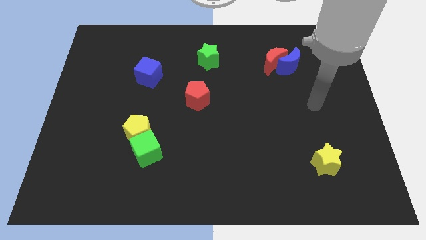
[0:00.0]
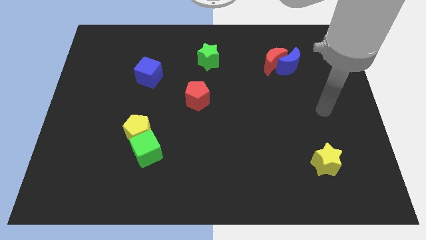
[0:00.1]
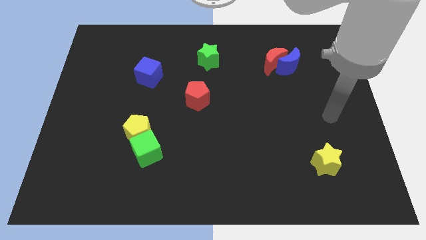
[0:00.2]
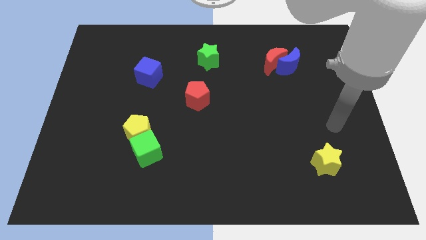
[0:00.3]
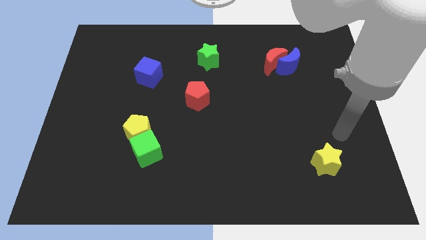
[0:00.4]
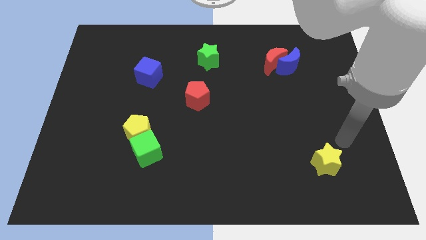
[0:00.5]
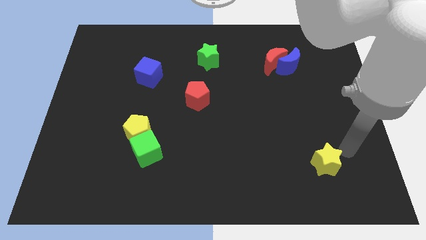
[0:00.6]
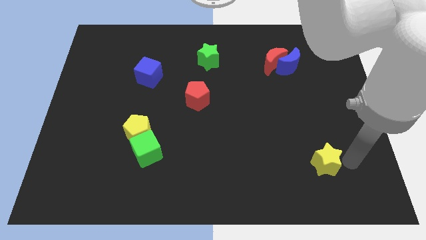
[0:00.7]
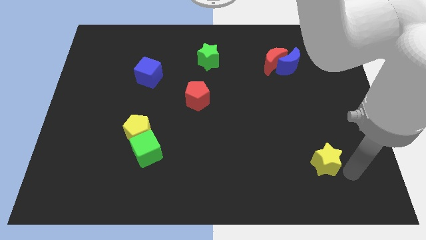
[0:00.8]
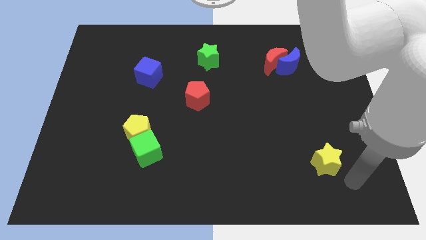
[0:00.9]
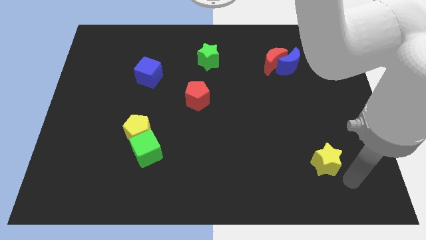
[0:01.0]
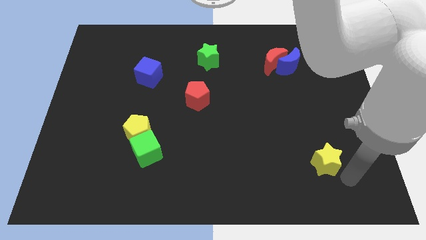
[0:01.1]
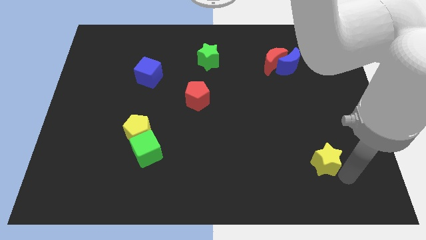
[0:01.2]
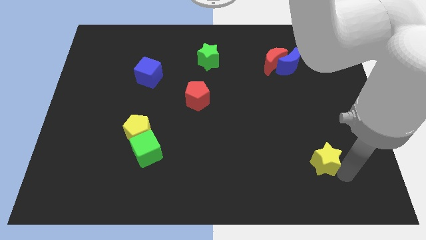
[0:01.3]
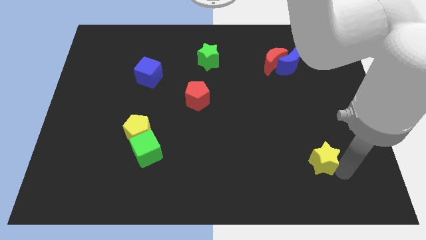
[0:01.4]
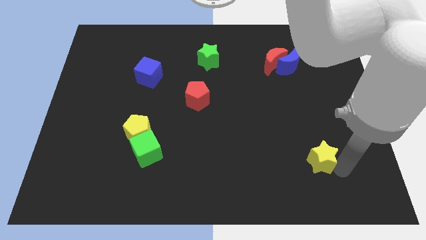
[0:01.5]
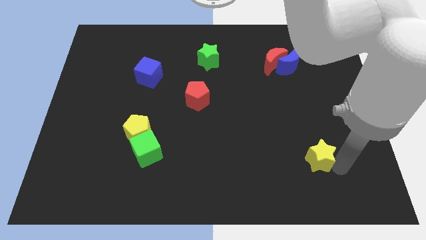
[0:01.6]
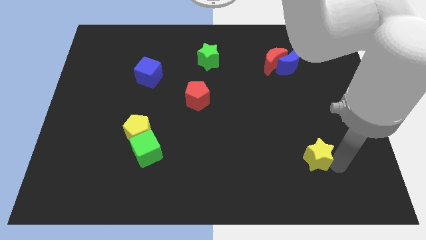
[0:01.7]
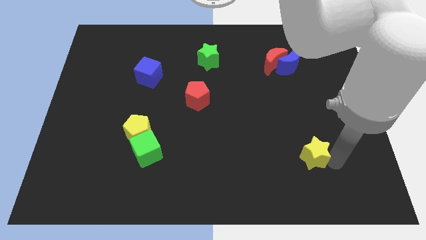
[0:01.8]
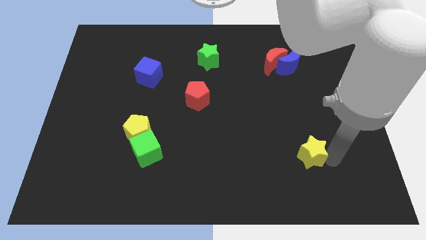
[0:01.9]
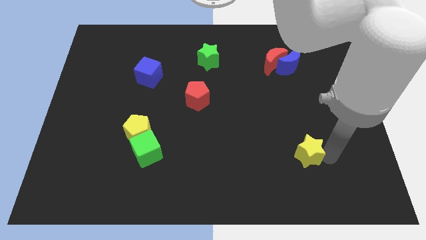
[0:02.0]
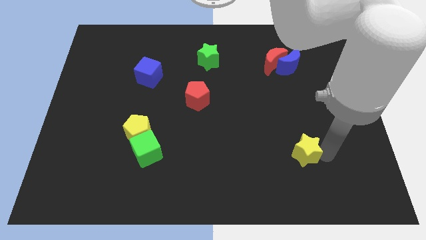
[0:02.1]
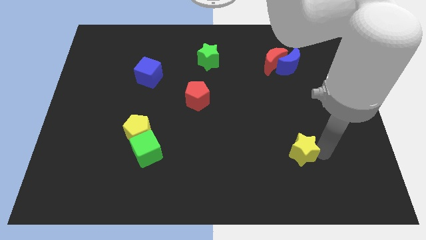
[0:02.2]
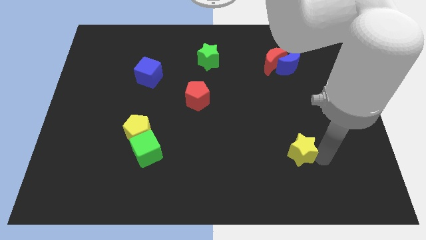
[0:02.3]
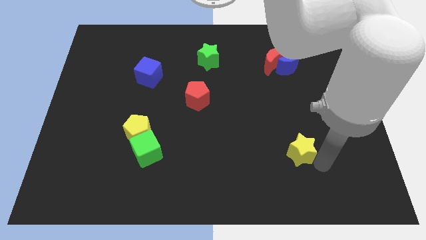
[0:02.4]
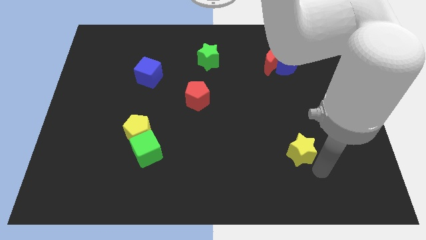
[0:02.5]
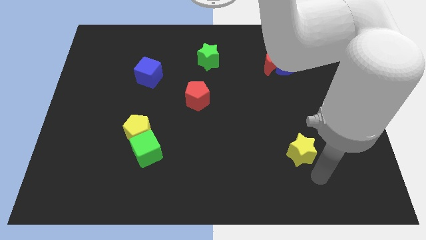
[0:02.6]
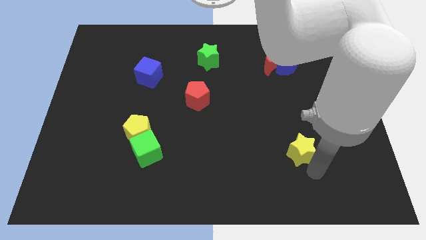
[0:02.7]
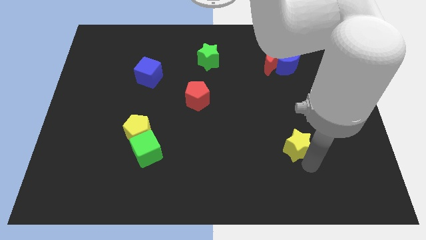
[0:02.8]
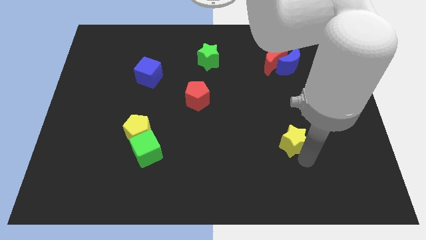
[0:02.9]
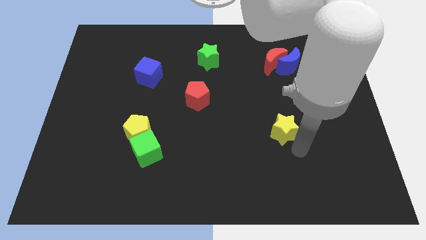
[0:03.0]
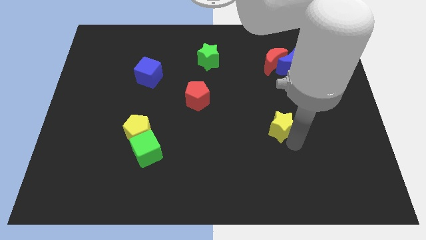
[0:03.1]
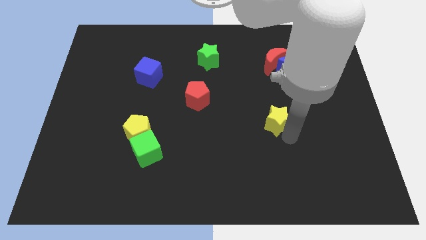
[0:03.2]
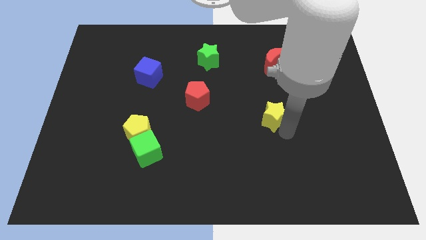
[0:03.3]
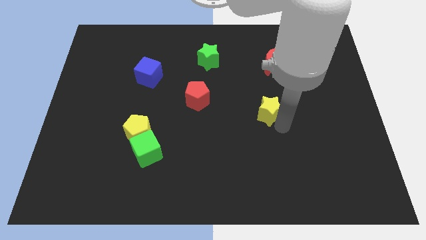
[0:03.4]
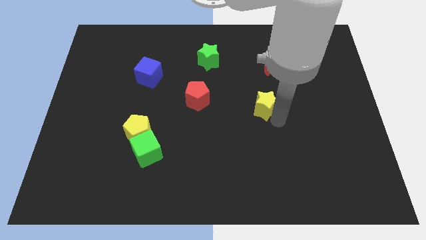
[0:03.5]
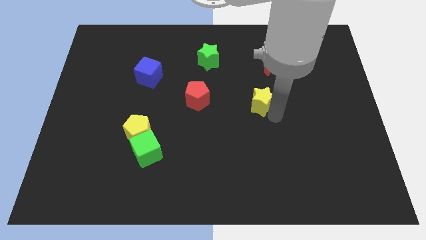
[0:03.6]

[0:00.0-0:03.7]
push the yellow star upwards and left

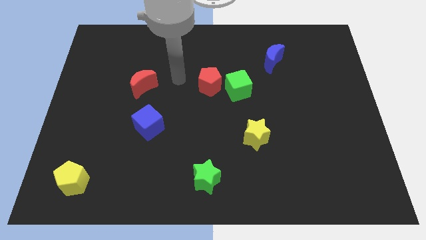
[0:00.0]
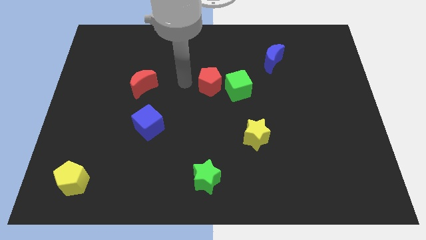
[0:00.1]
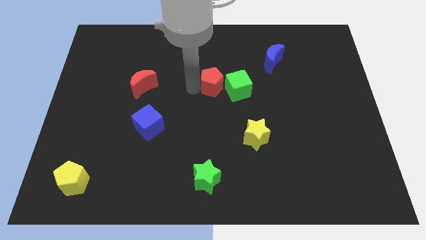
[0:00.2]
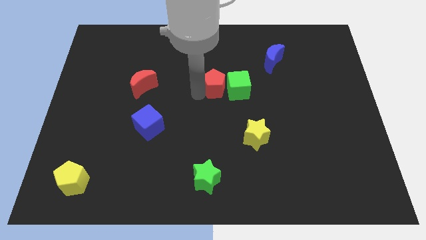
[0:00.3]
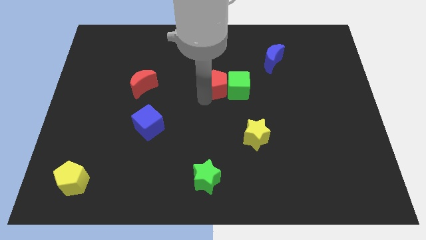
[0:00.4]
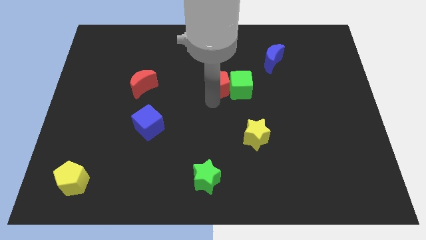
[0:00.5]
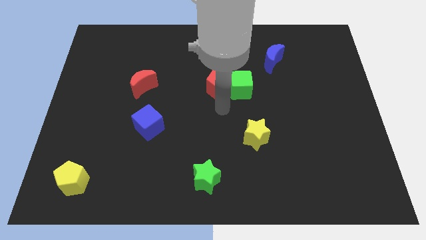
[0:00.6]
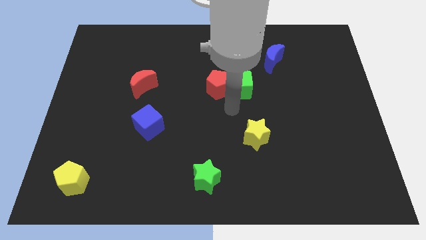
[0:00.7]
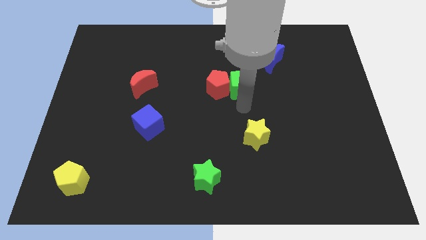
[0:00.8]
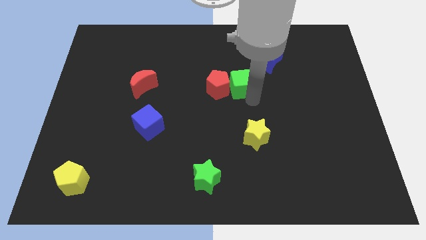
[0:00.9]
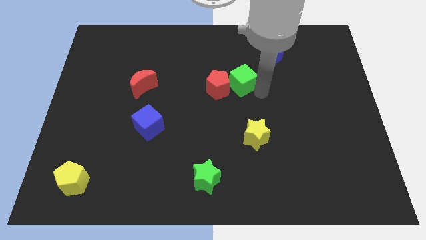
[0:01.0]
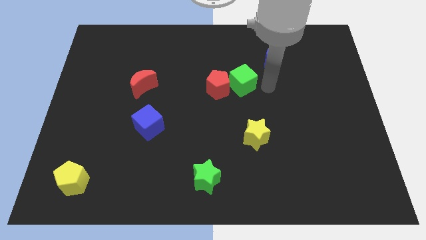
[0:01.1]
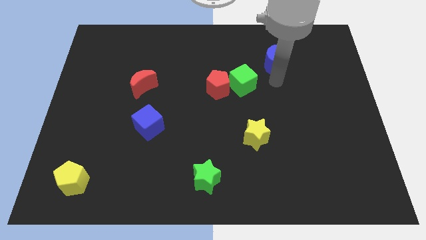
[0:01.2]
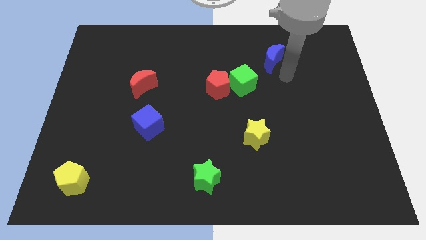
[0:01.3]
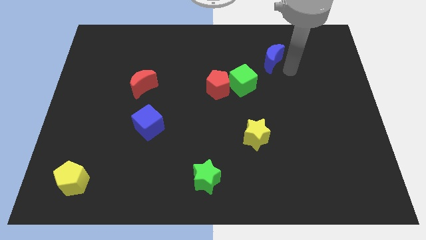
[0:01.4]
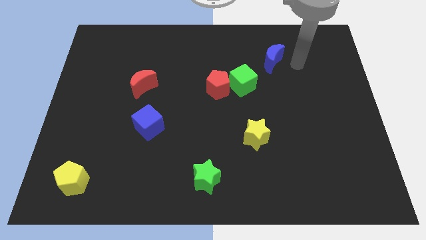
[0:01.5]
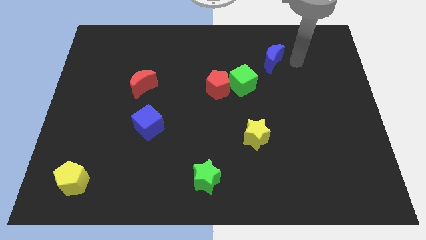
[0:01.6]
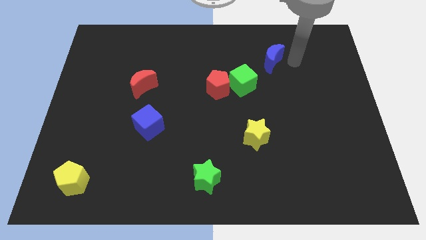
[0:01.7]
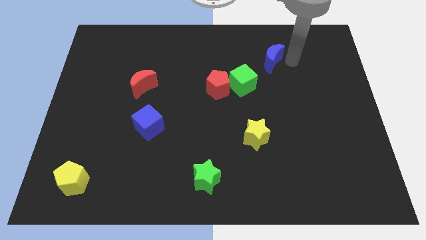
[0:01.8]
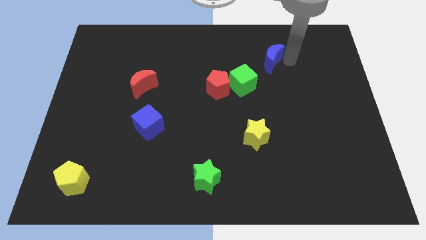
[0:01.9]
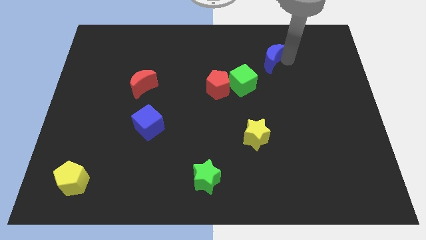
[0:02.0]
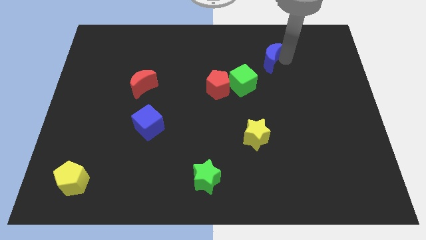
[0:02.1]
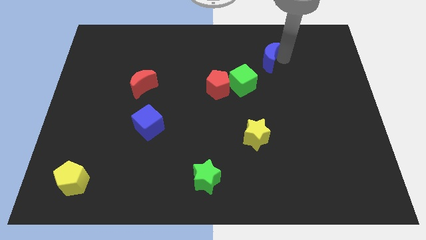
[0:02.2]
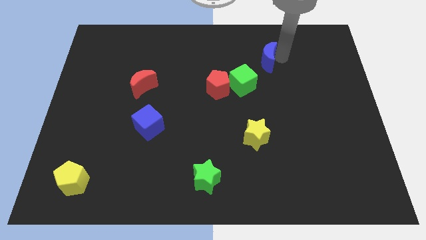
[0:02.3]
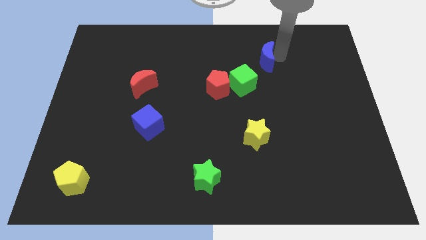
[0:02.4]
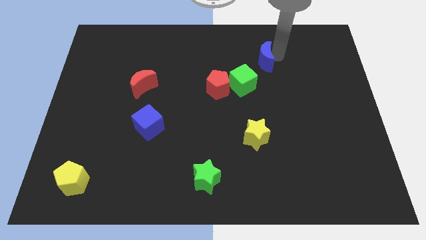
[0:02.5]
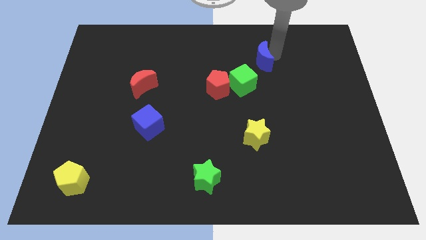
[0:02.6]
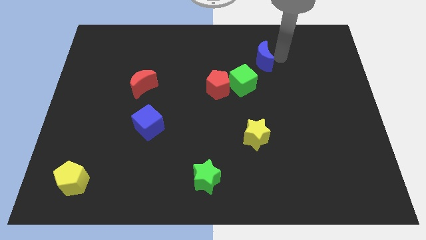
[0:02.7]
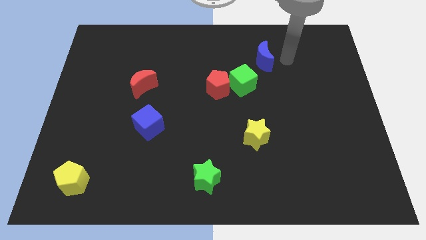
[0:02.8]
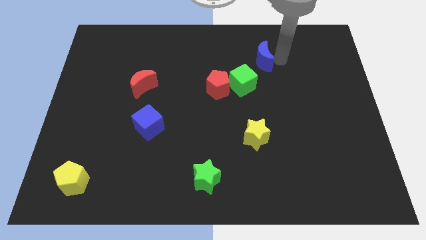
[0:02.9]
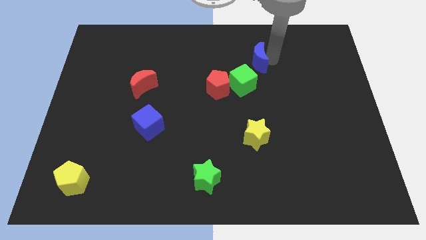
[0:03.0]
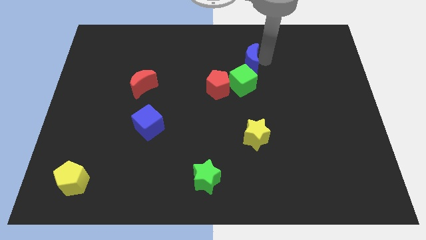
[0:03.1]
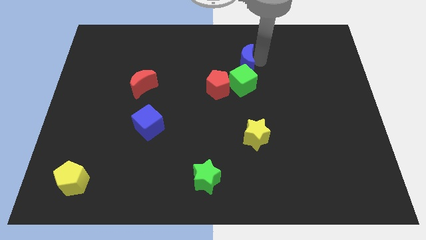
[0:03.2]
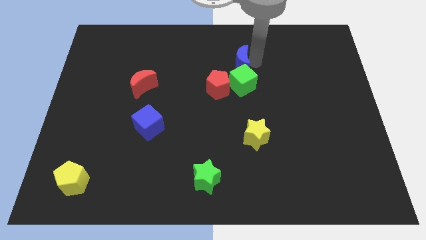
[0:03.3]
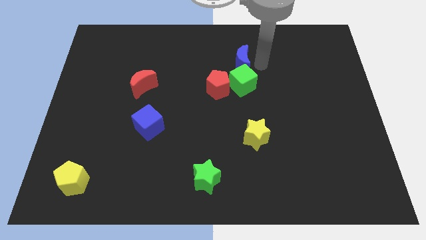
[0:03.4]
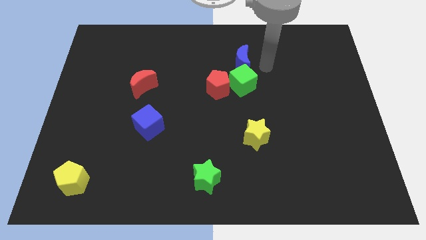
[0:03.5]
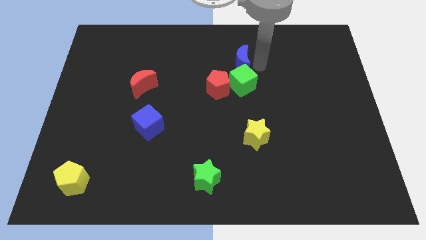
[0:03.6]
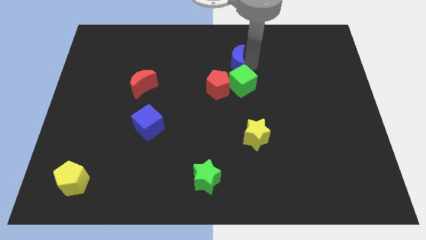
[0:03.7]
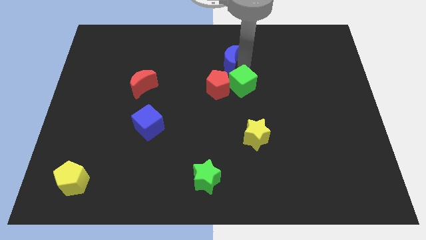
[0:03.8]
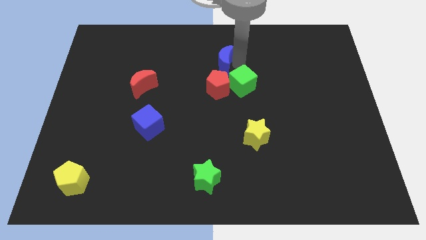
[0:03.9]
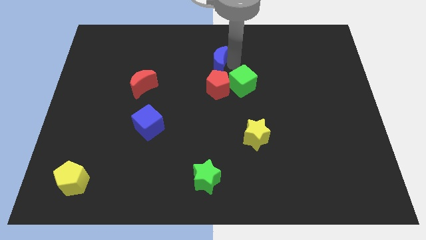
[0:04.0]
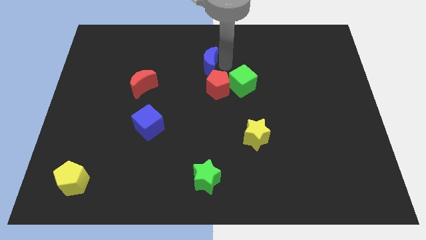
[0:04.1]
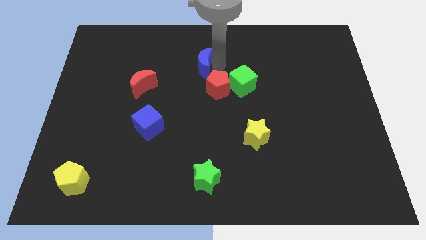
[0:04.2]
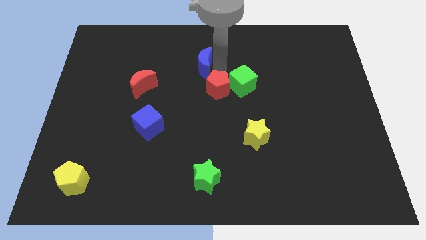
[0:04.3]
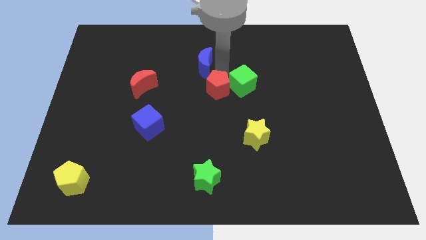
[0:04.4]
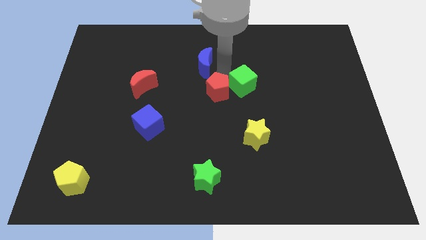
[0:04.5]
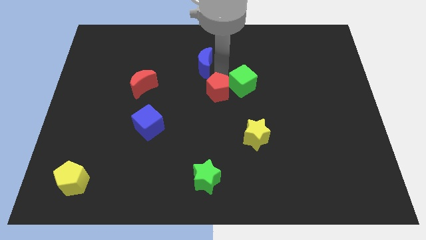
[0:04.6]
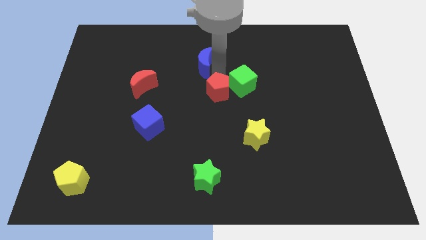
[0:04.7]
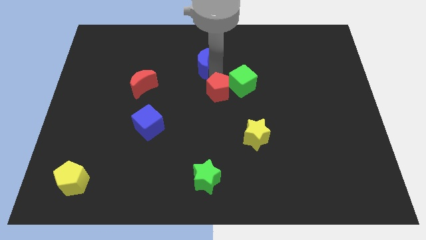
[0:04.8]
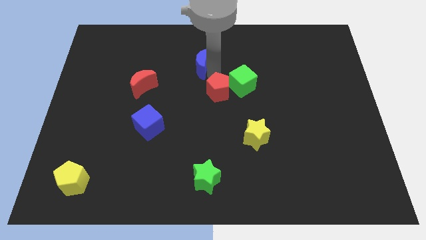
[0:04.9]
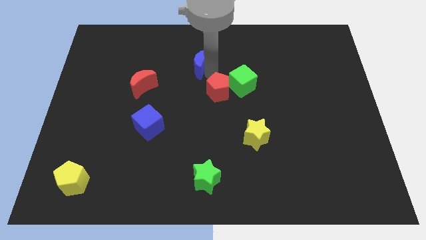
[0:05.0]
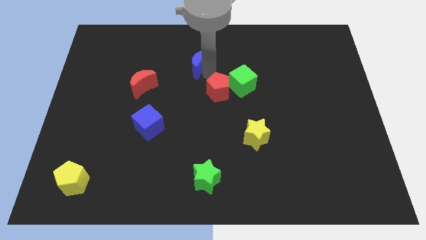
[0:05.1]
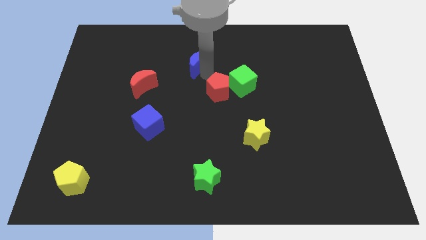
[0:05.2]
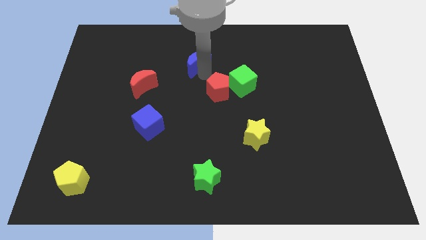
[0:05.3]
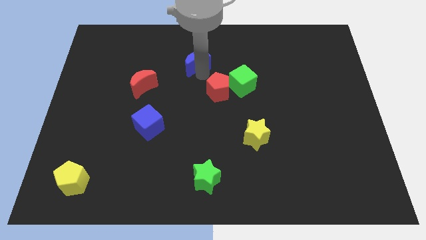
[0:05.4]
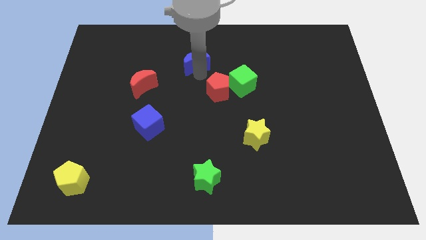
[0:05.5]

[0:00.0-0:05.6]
move the blue moon left
